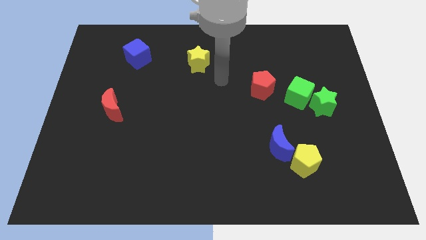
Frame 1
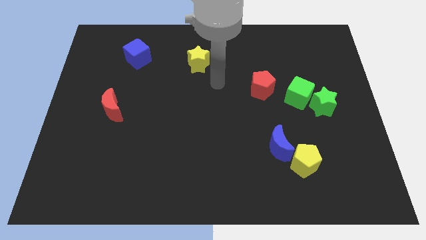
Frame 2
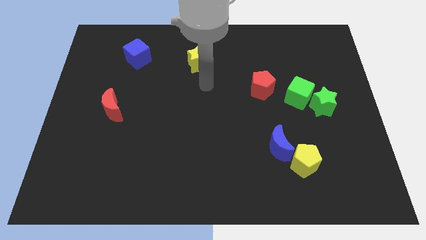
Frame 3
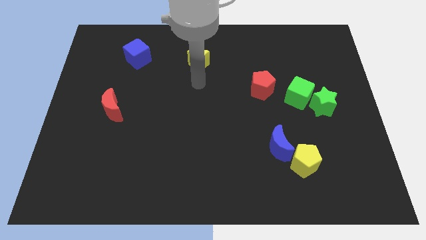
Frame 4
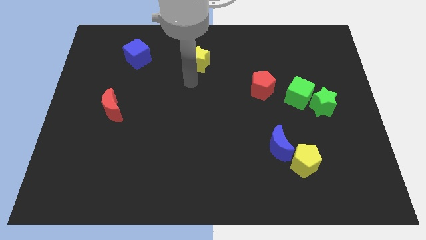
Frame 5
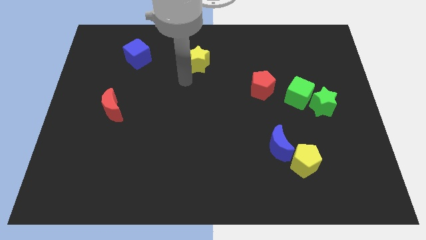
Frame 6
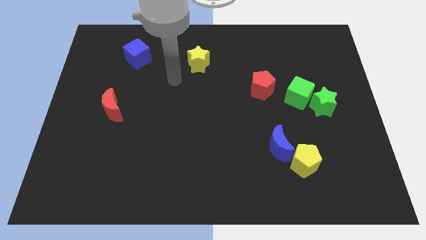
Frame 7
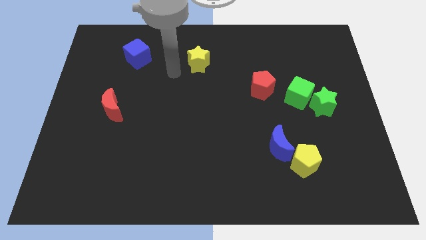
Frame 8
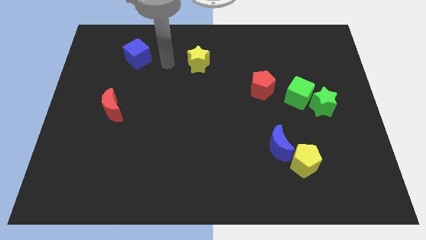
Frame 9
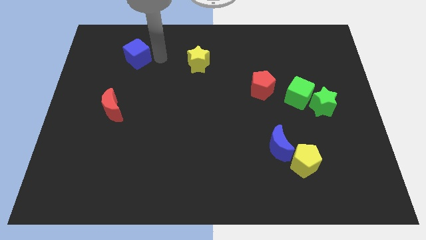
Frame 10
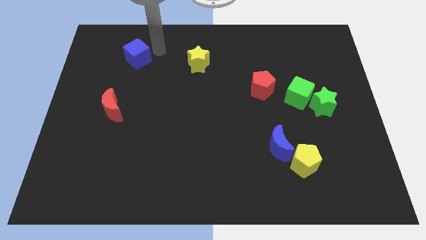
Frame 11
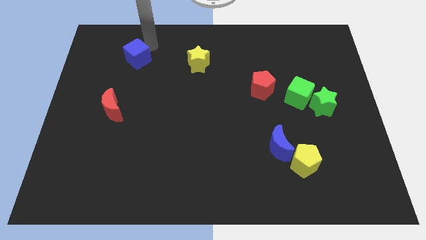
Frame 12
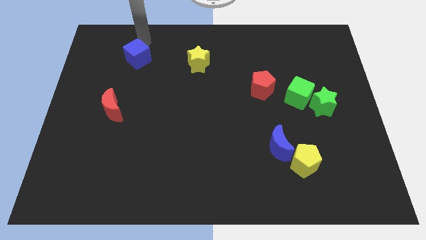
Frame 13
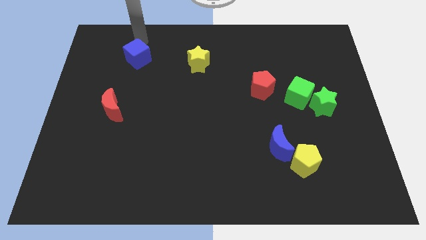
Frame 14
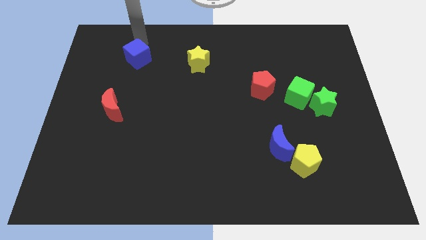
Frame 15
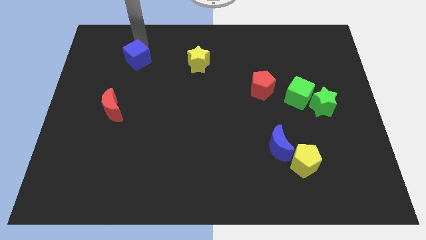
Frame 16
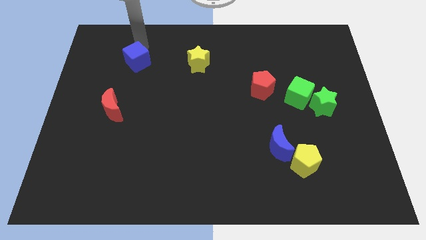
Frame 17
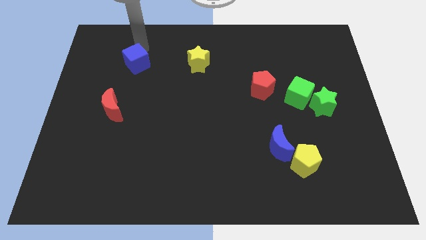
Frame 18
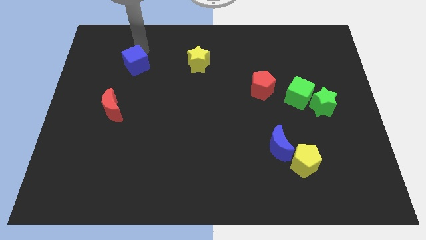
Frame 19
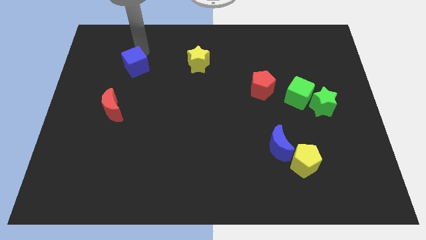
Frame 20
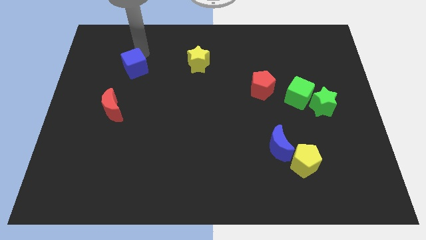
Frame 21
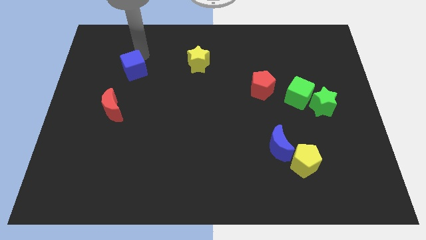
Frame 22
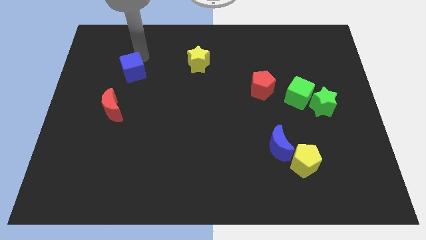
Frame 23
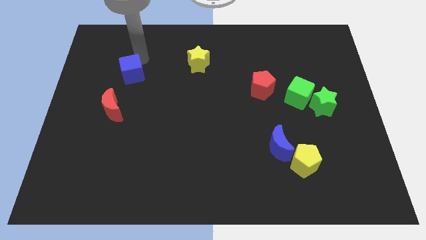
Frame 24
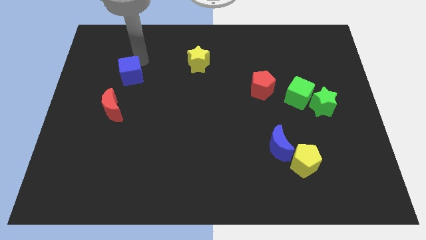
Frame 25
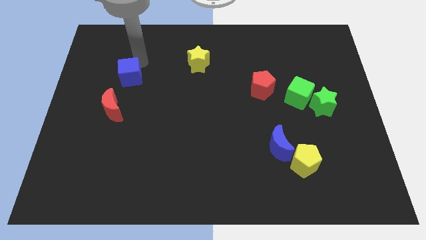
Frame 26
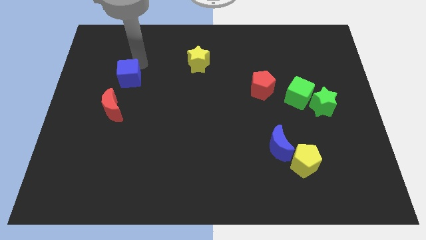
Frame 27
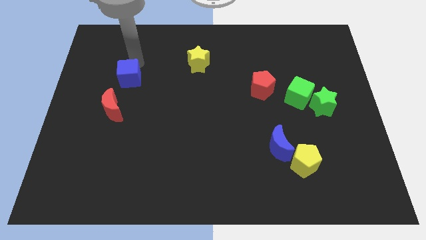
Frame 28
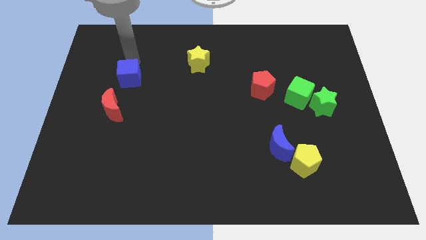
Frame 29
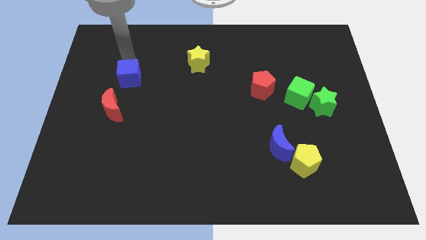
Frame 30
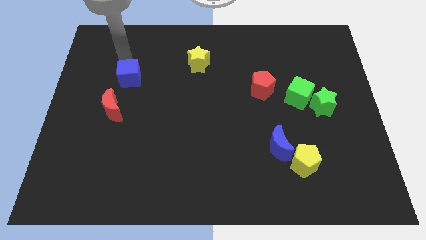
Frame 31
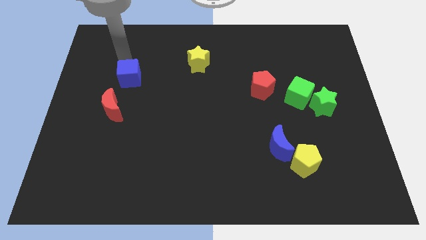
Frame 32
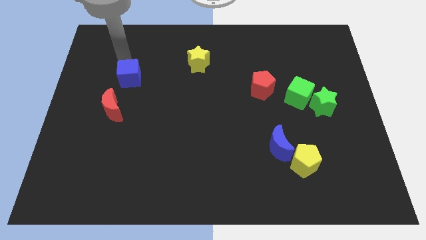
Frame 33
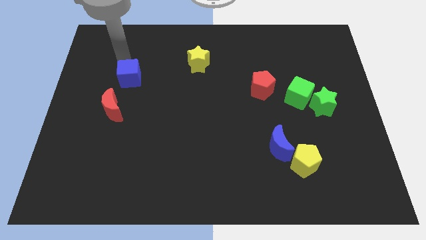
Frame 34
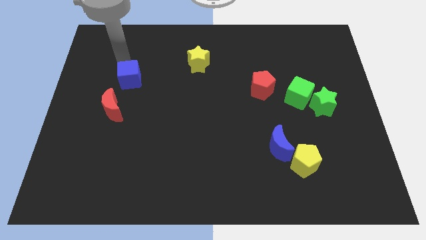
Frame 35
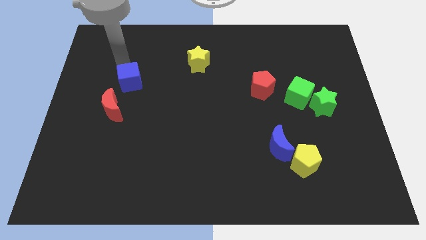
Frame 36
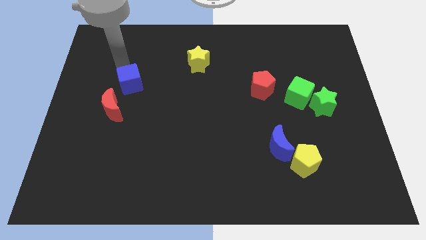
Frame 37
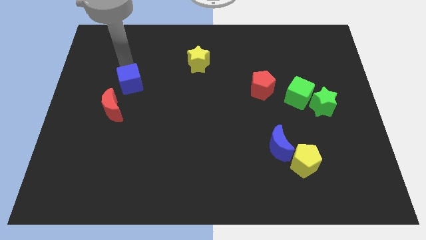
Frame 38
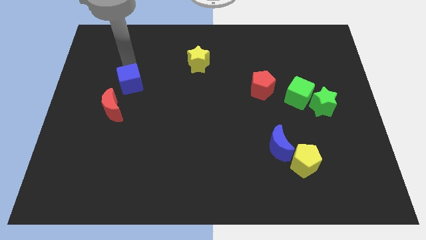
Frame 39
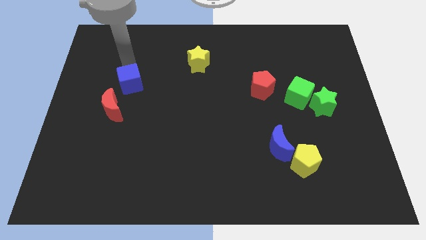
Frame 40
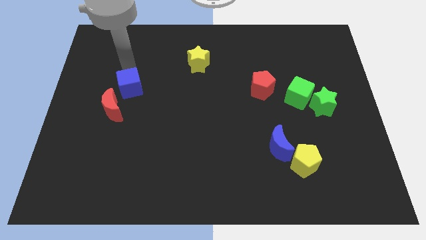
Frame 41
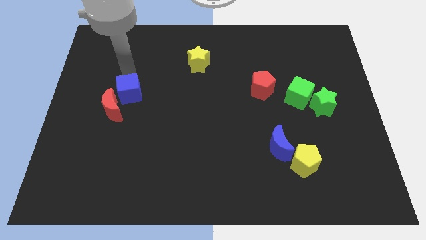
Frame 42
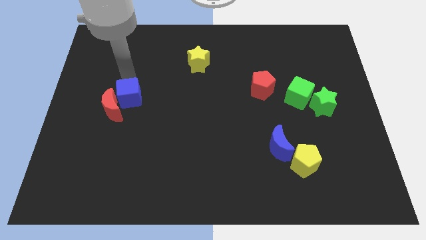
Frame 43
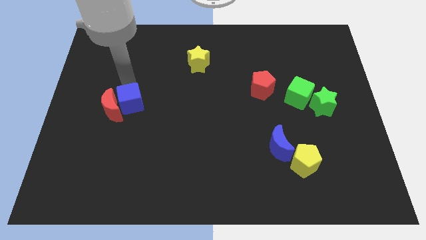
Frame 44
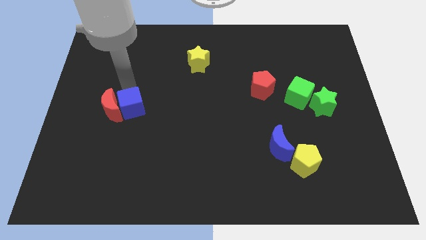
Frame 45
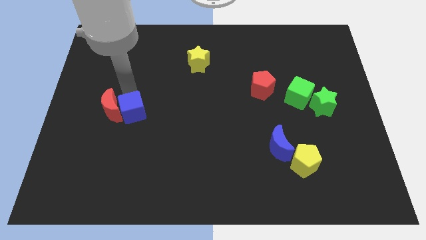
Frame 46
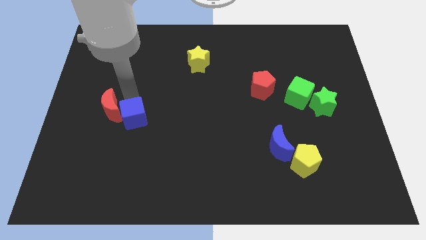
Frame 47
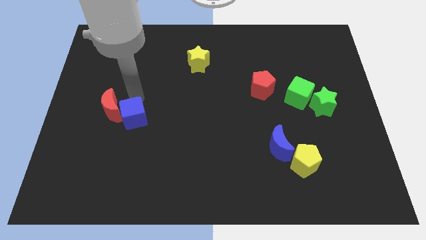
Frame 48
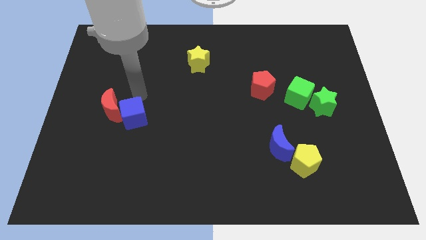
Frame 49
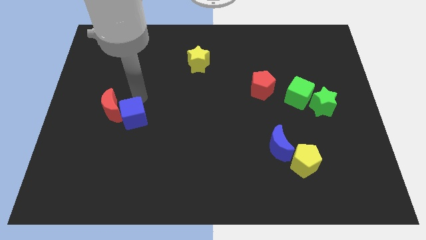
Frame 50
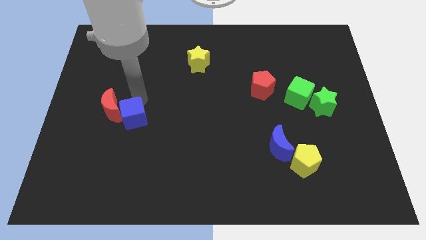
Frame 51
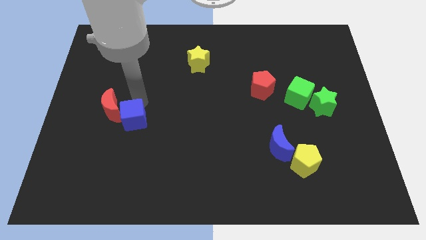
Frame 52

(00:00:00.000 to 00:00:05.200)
slide the blue cube down

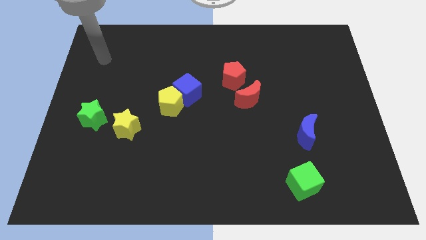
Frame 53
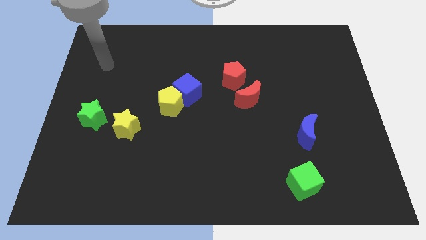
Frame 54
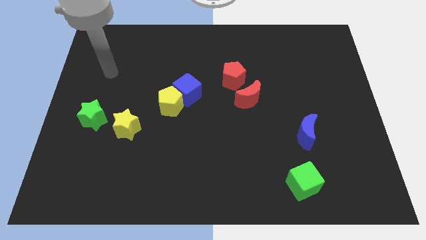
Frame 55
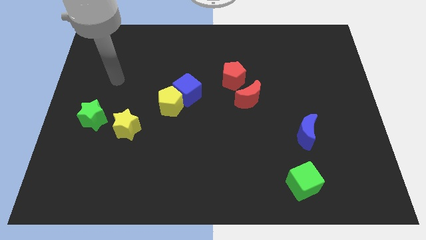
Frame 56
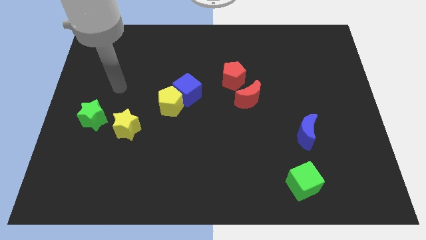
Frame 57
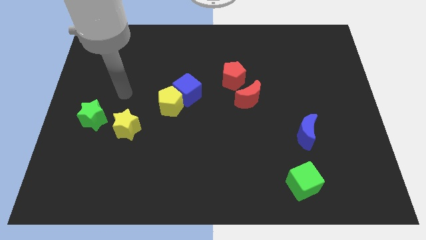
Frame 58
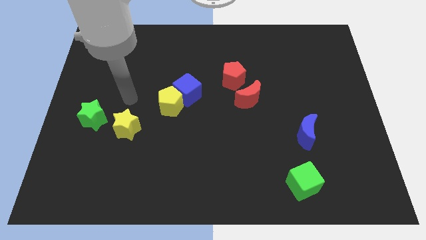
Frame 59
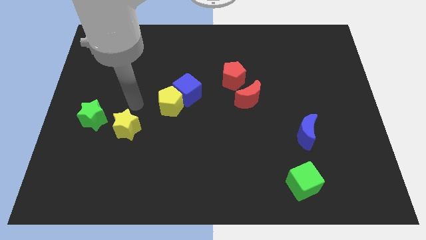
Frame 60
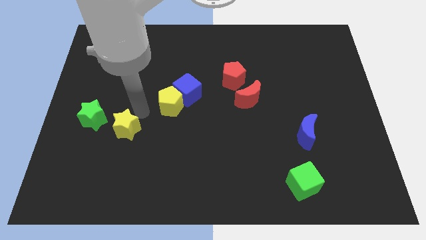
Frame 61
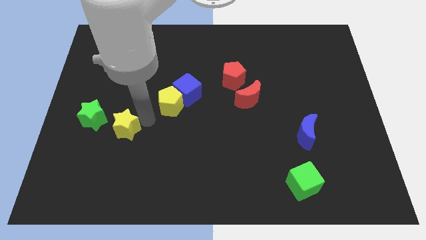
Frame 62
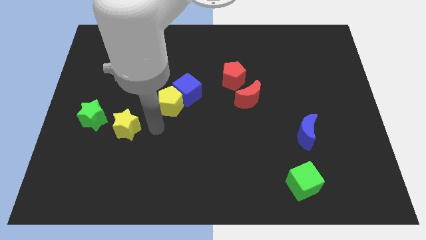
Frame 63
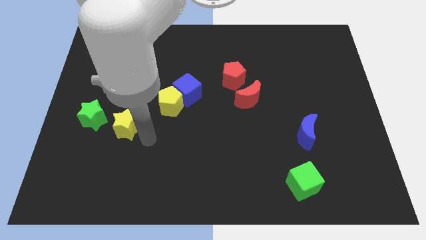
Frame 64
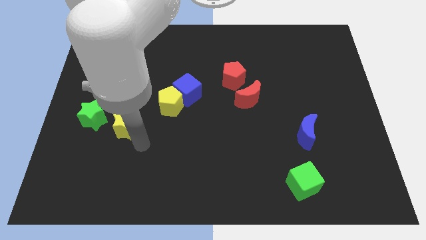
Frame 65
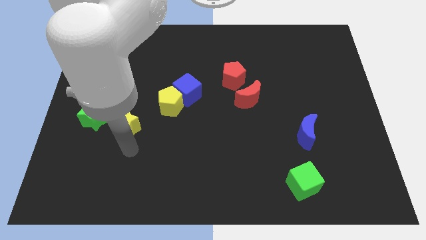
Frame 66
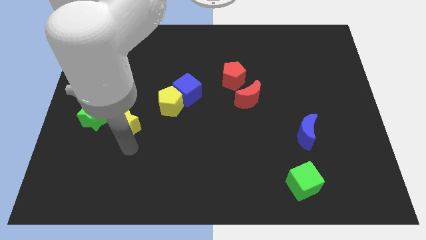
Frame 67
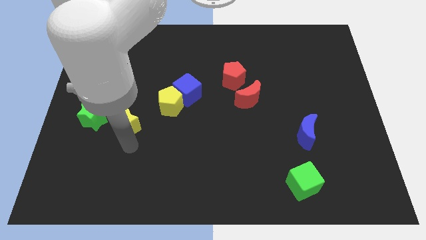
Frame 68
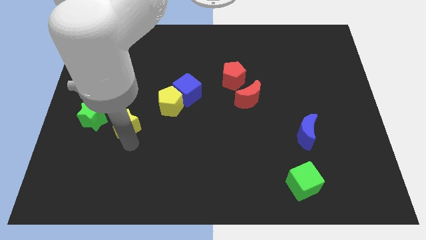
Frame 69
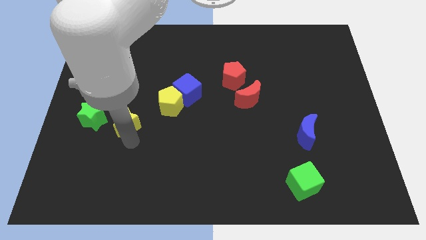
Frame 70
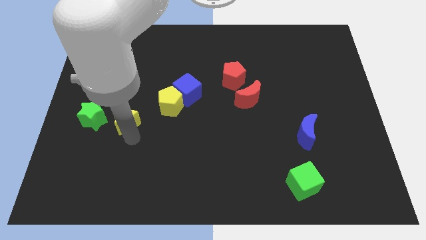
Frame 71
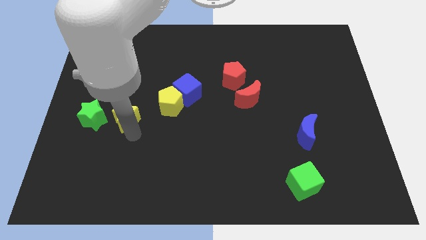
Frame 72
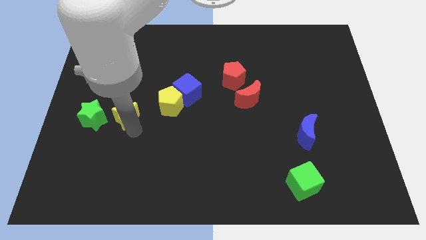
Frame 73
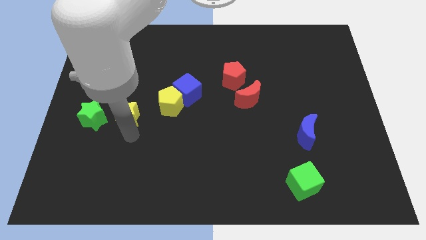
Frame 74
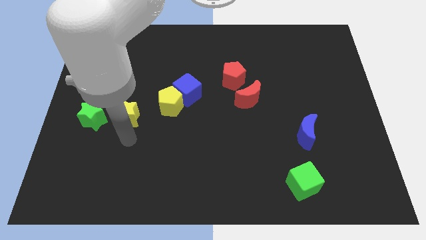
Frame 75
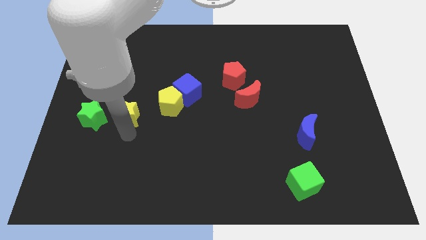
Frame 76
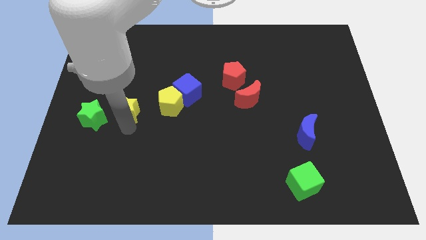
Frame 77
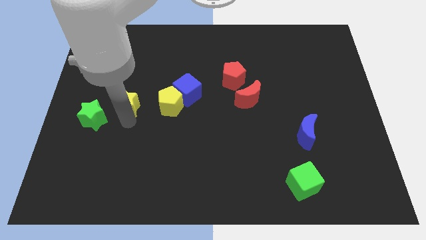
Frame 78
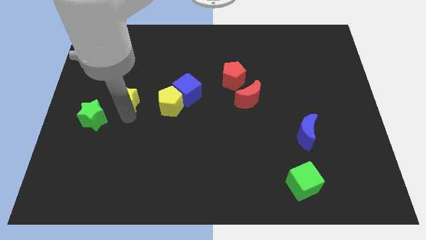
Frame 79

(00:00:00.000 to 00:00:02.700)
slightly slide the yellow star upwards

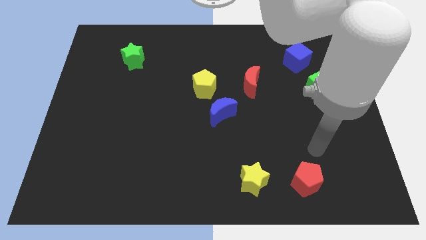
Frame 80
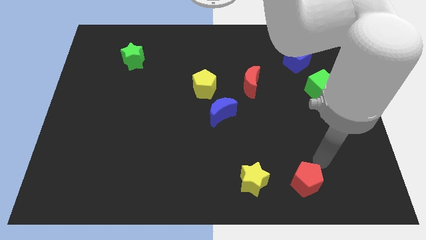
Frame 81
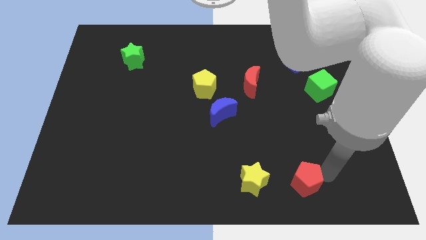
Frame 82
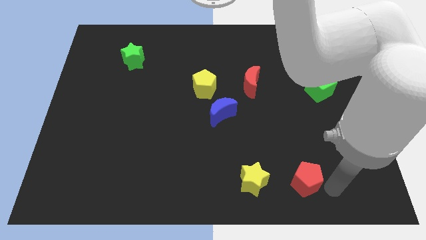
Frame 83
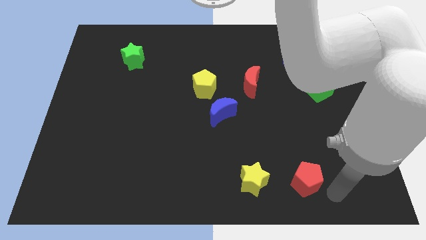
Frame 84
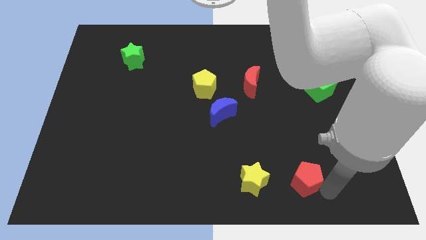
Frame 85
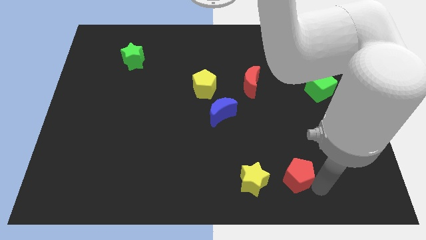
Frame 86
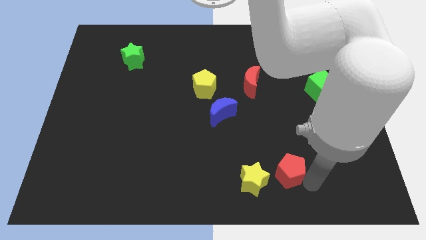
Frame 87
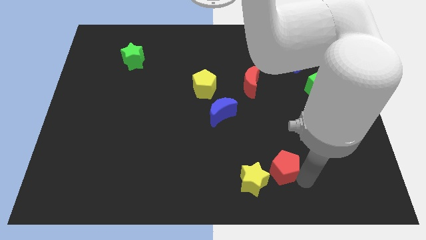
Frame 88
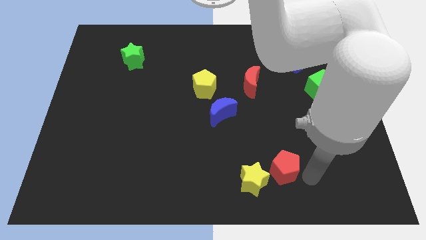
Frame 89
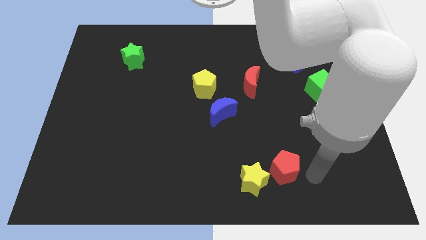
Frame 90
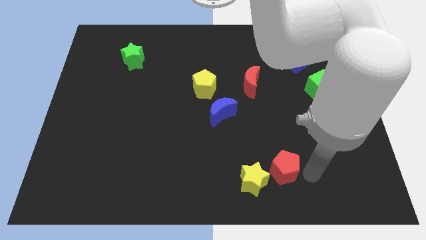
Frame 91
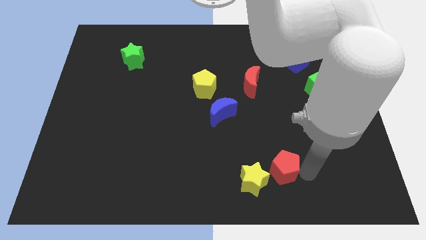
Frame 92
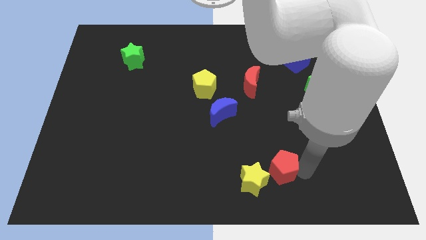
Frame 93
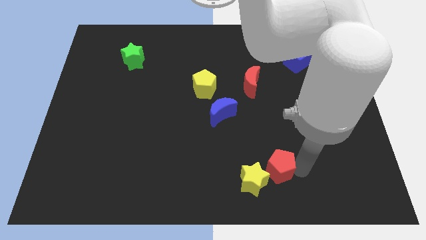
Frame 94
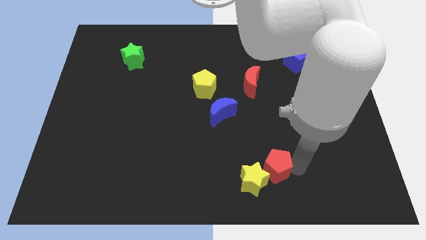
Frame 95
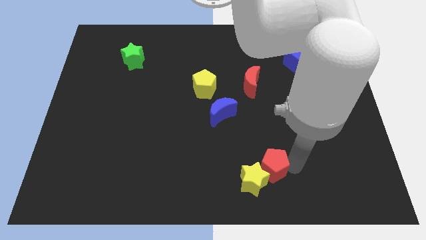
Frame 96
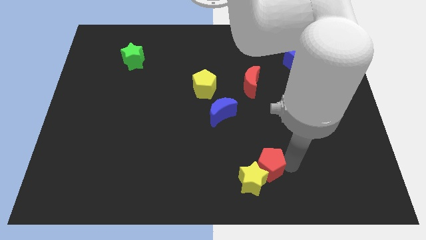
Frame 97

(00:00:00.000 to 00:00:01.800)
slightly slide the red pentagon to the left
